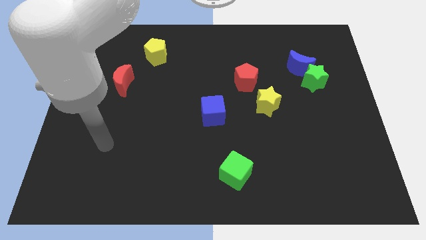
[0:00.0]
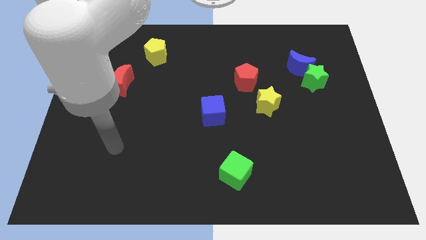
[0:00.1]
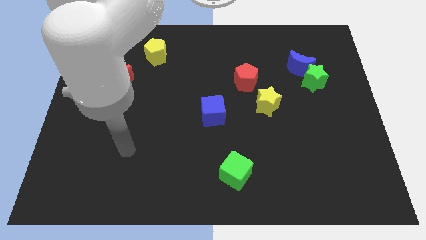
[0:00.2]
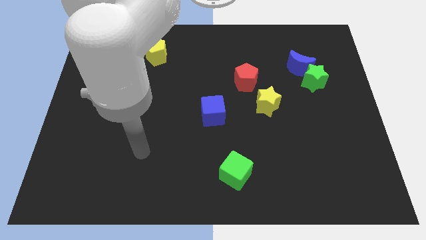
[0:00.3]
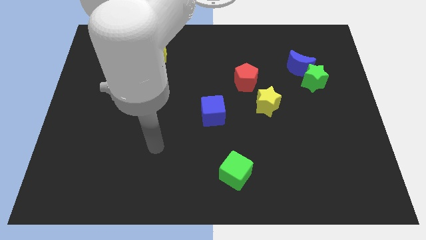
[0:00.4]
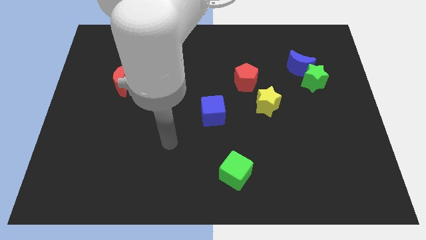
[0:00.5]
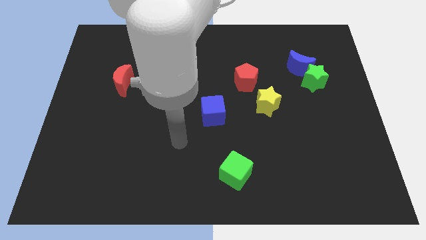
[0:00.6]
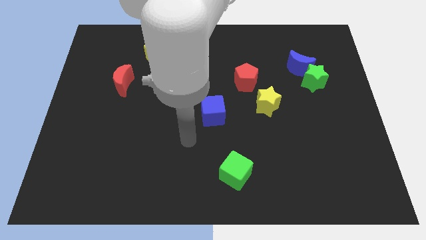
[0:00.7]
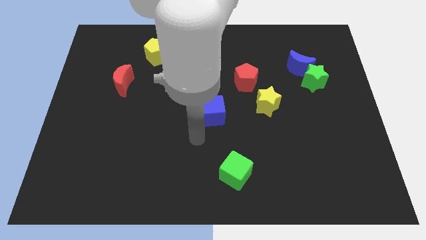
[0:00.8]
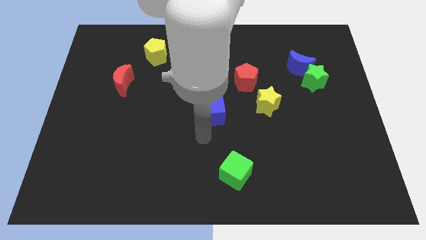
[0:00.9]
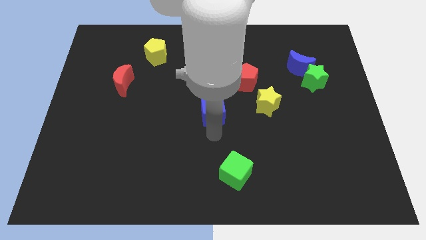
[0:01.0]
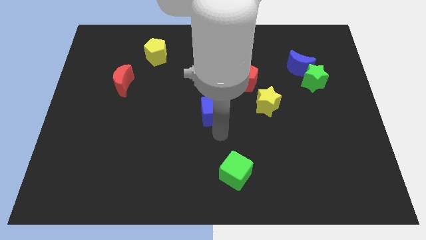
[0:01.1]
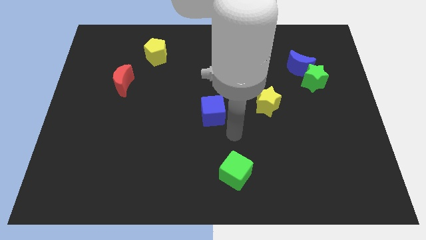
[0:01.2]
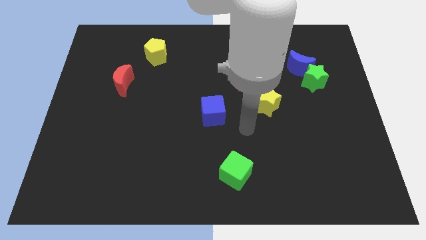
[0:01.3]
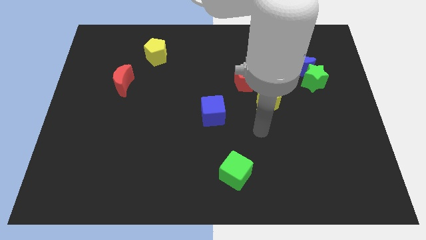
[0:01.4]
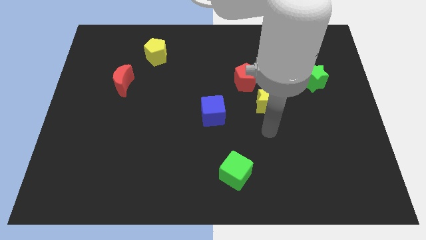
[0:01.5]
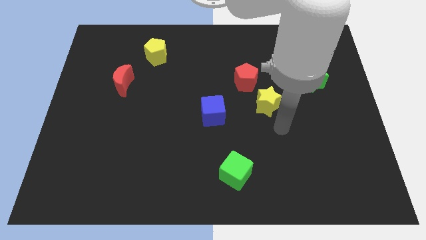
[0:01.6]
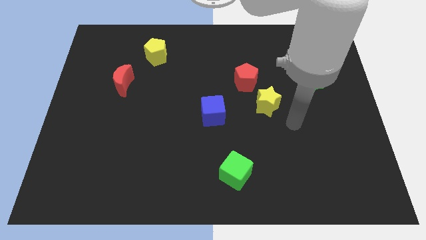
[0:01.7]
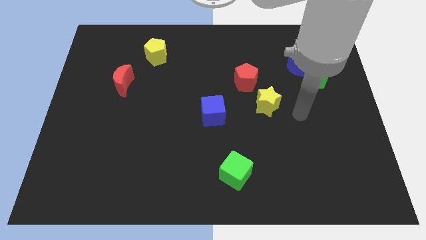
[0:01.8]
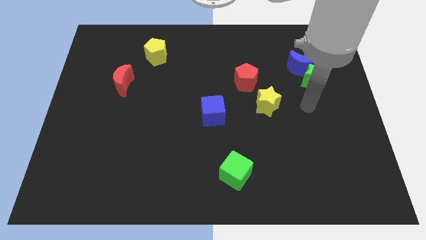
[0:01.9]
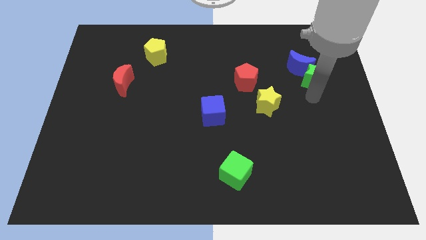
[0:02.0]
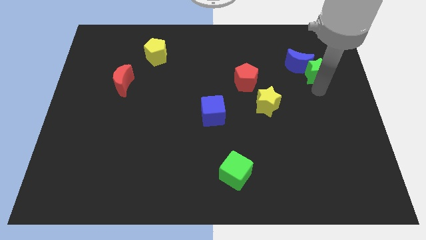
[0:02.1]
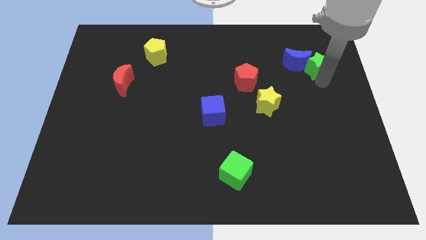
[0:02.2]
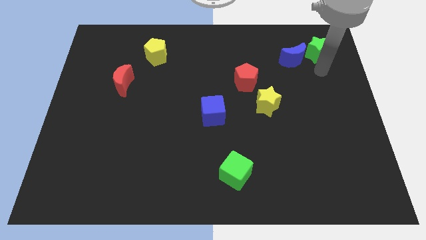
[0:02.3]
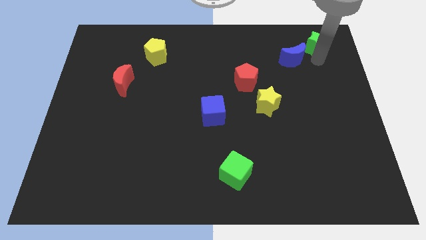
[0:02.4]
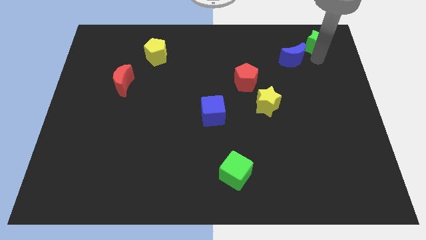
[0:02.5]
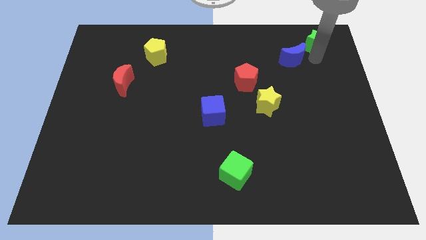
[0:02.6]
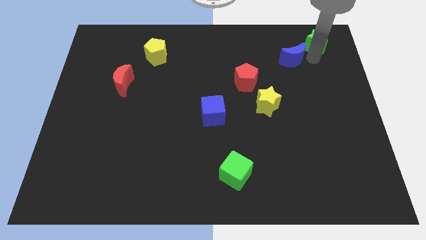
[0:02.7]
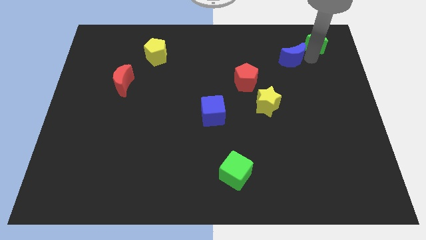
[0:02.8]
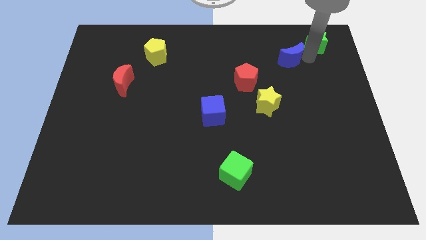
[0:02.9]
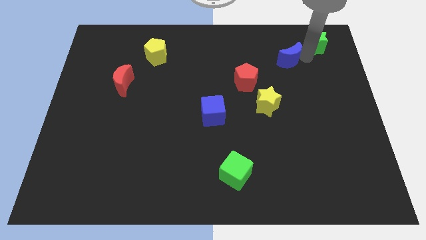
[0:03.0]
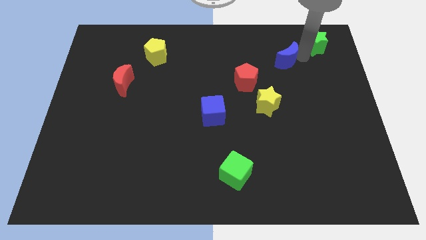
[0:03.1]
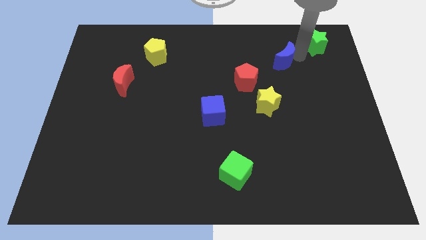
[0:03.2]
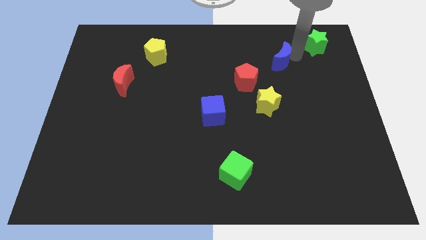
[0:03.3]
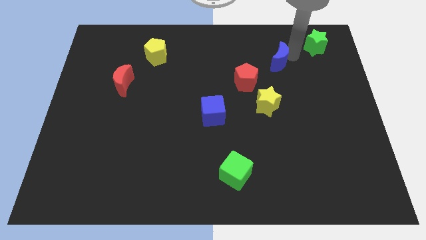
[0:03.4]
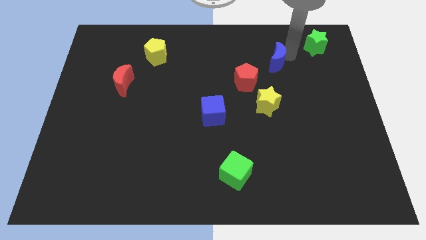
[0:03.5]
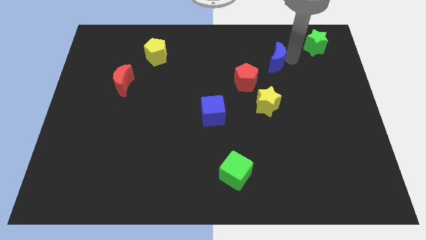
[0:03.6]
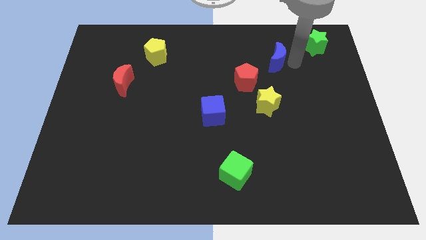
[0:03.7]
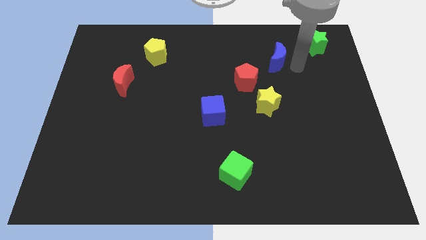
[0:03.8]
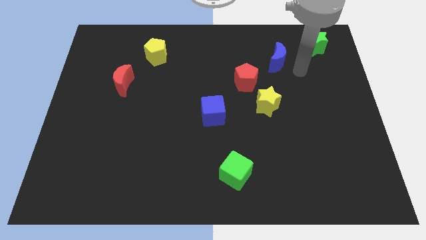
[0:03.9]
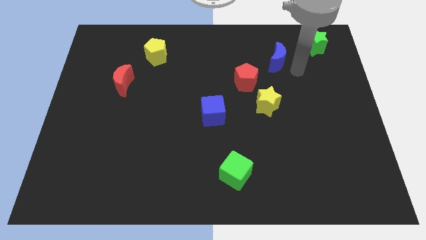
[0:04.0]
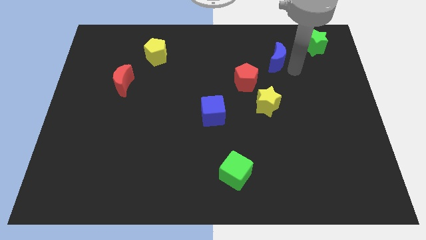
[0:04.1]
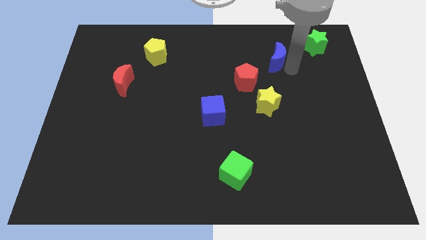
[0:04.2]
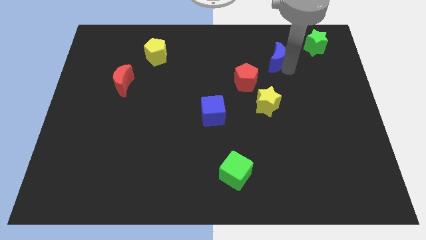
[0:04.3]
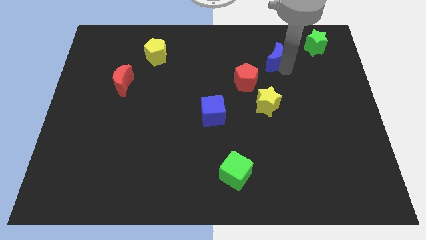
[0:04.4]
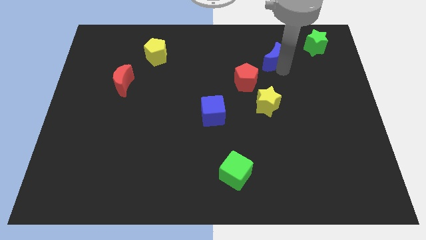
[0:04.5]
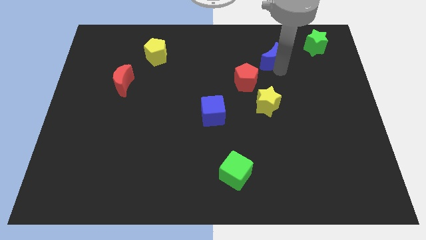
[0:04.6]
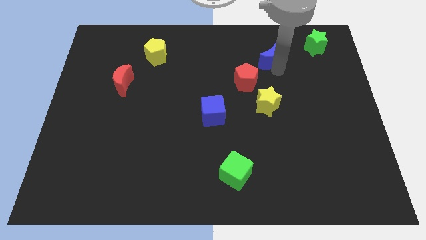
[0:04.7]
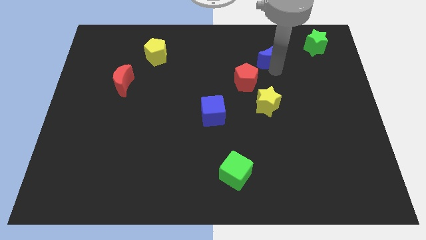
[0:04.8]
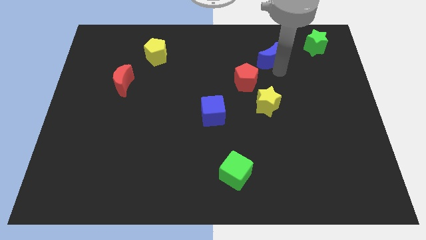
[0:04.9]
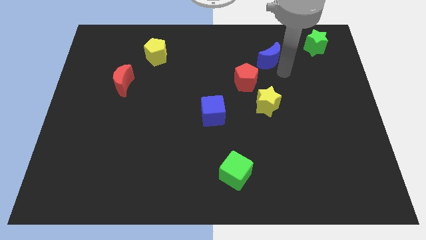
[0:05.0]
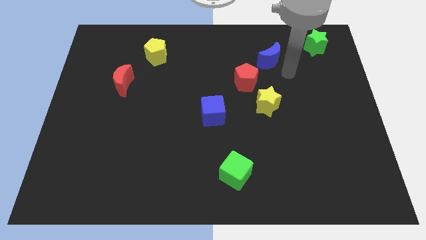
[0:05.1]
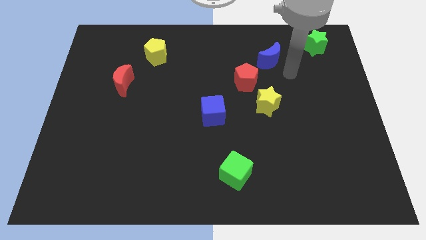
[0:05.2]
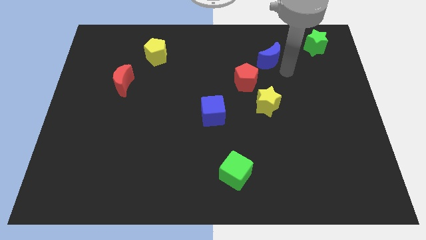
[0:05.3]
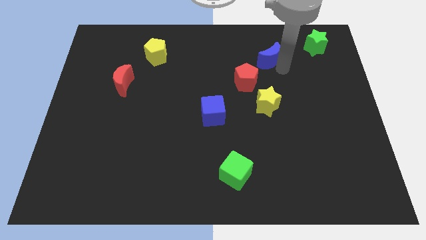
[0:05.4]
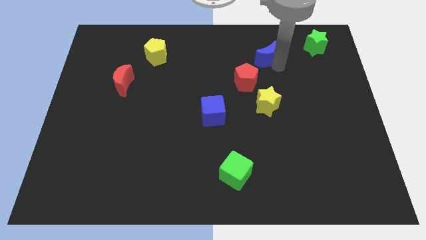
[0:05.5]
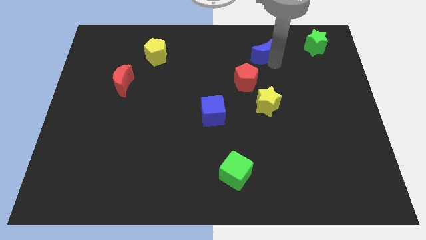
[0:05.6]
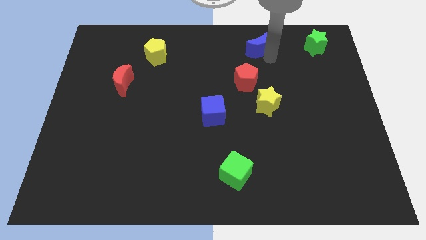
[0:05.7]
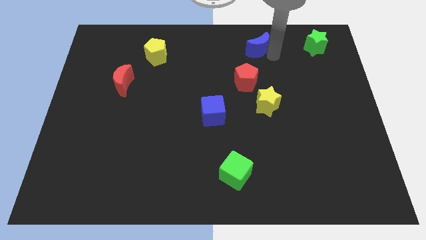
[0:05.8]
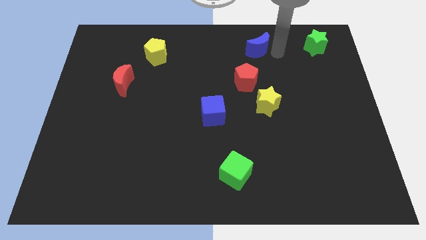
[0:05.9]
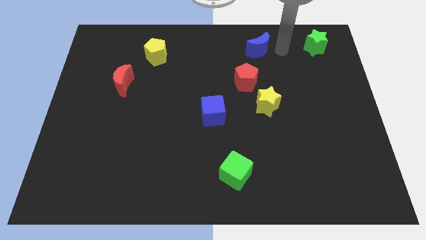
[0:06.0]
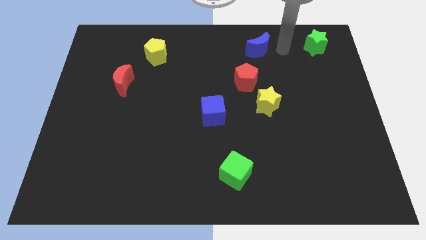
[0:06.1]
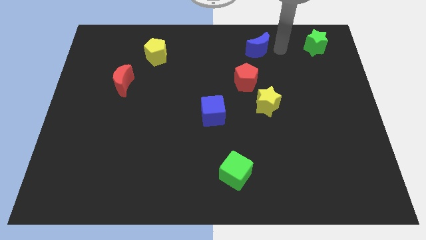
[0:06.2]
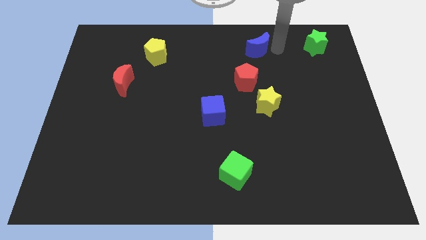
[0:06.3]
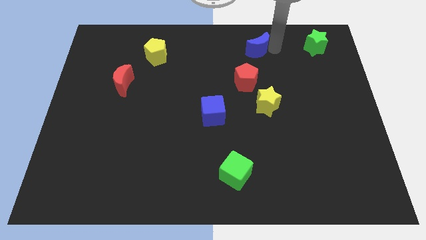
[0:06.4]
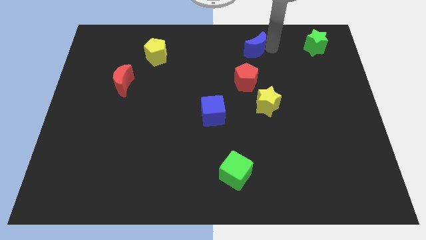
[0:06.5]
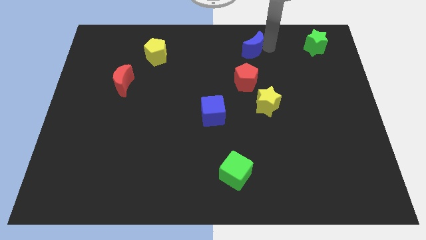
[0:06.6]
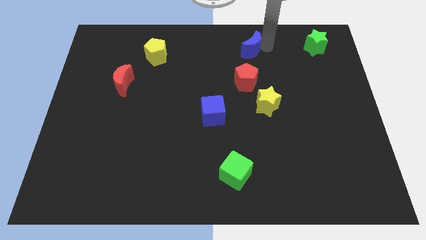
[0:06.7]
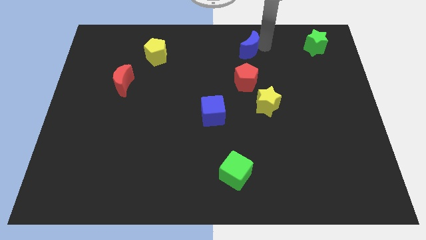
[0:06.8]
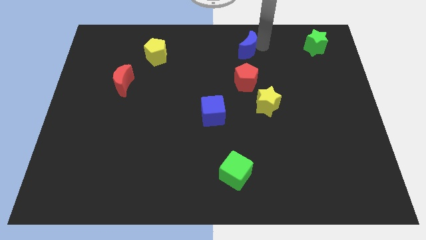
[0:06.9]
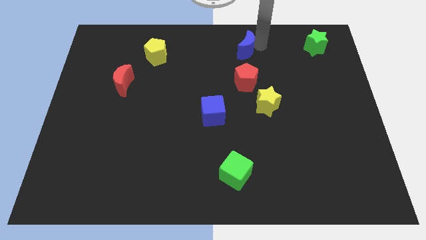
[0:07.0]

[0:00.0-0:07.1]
move the blue moon to the top
